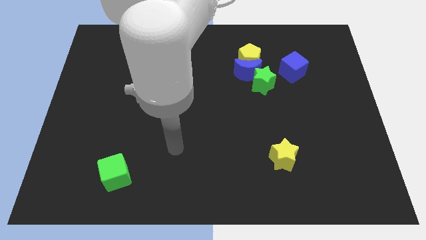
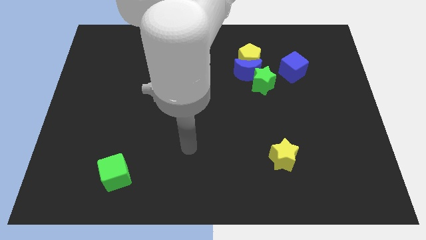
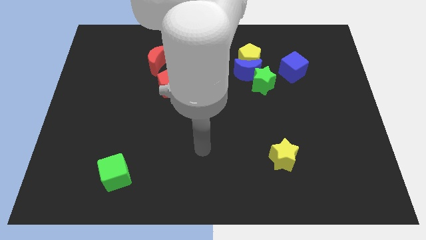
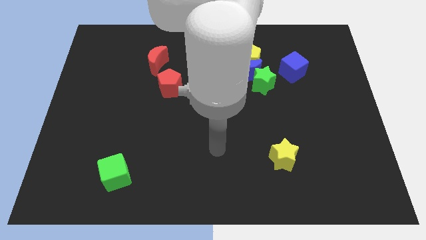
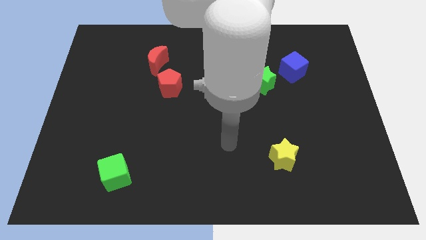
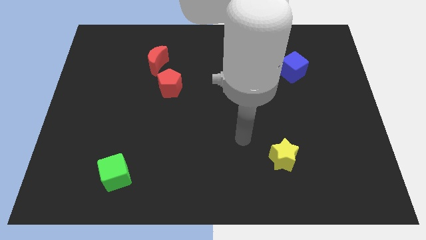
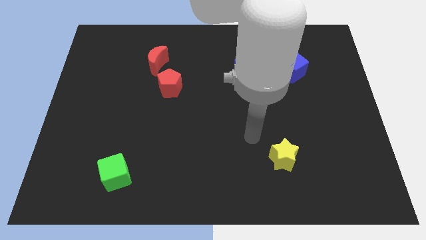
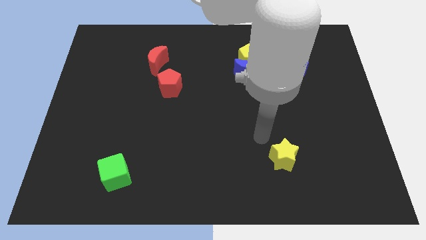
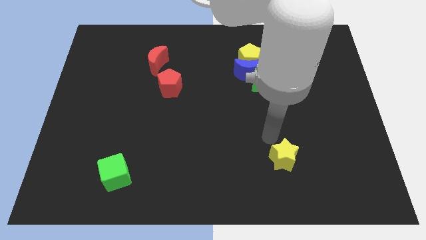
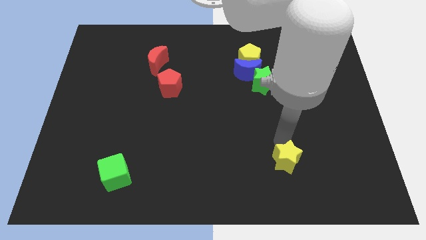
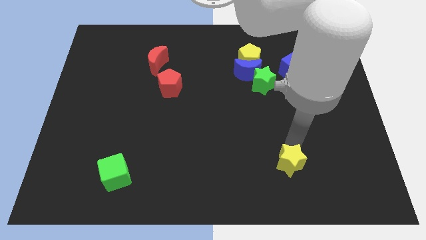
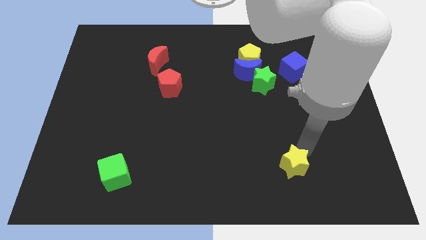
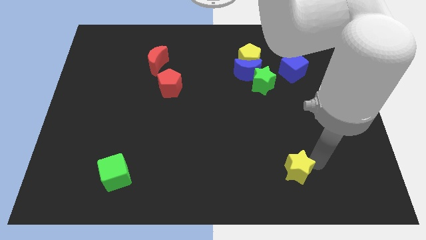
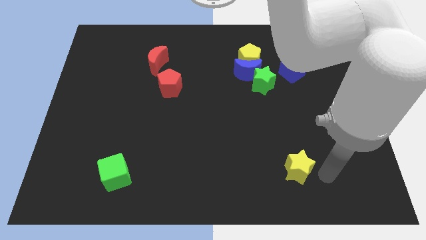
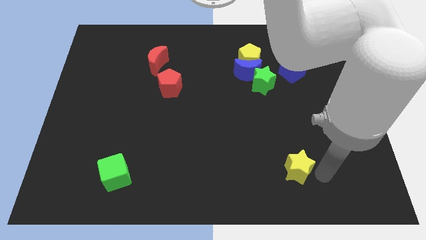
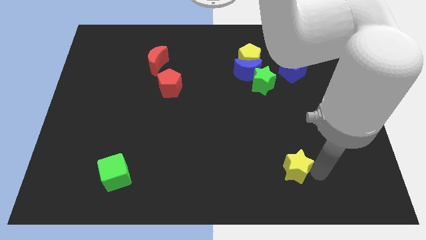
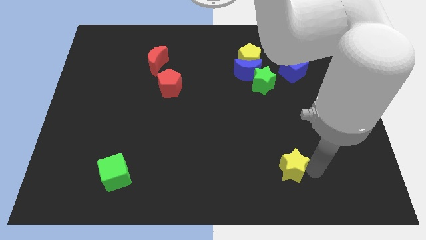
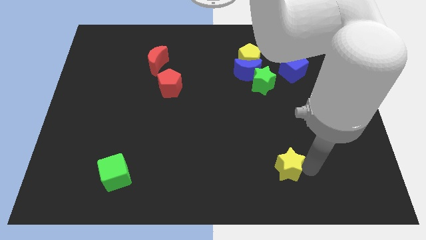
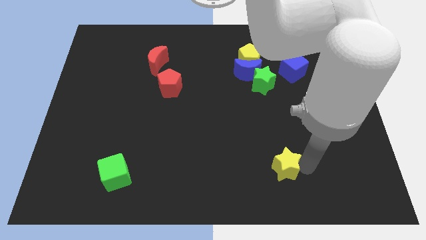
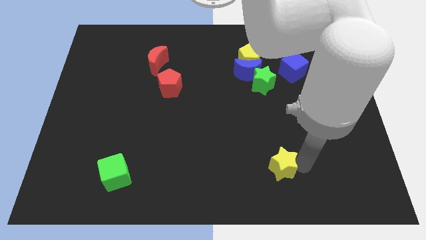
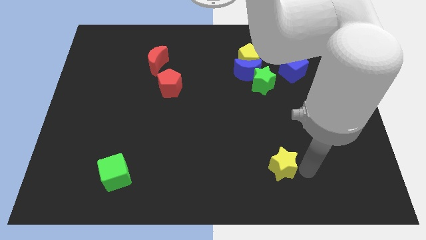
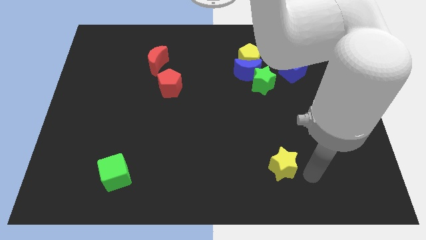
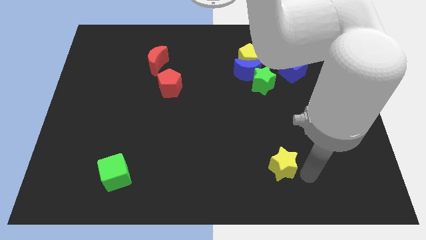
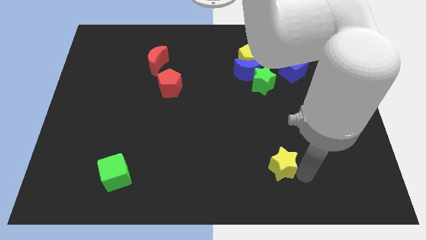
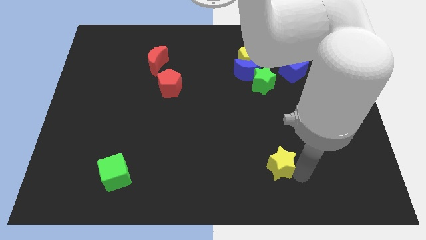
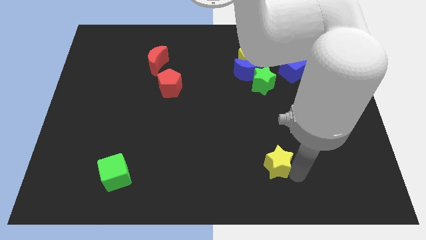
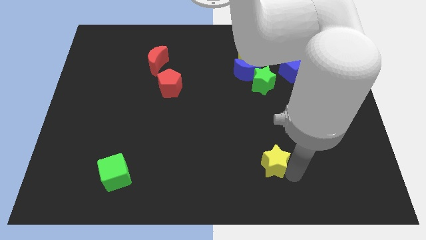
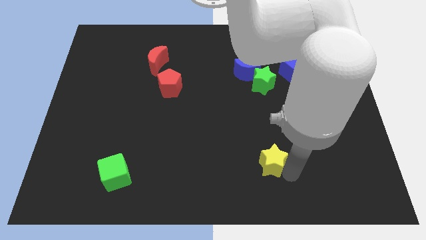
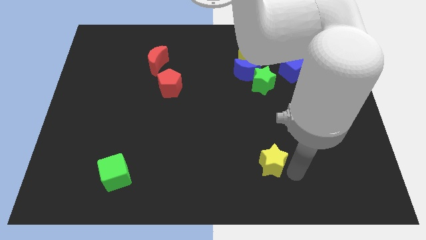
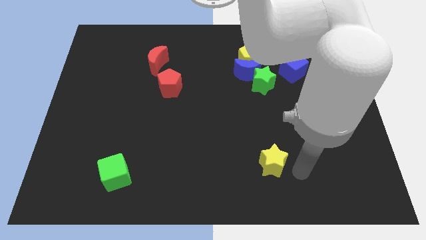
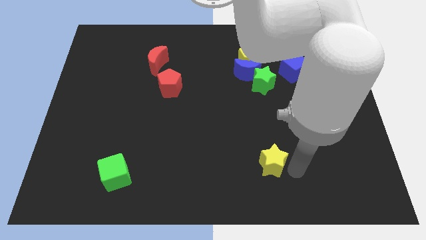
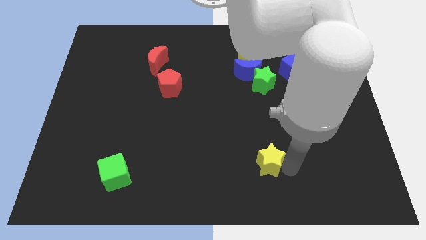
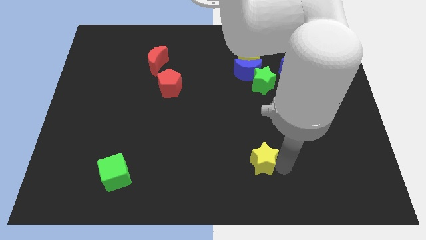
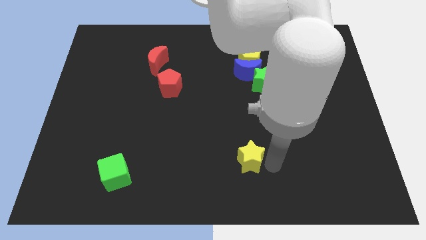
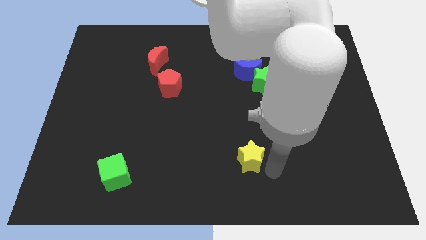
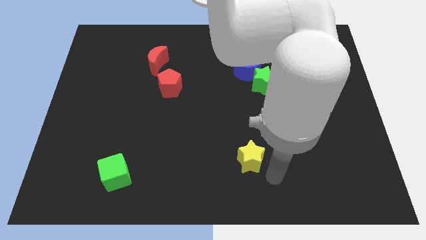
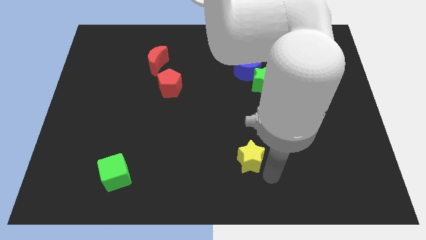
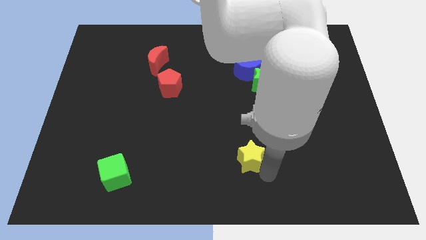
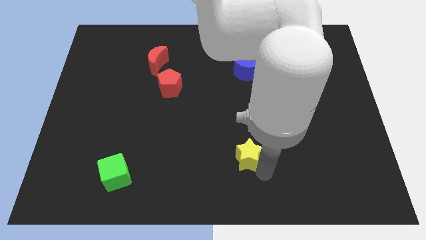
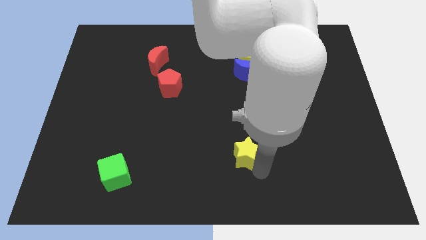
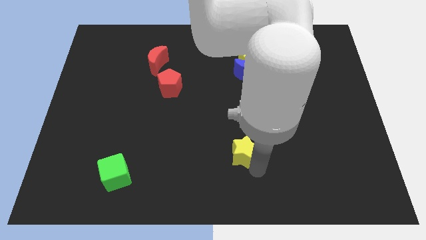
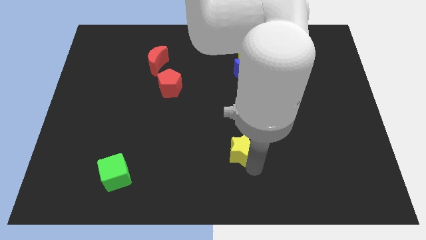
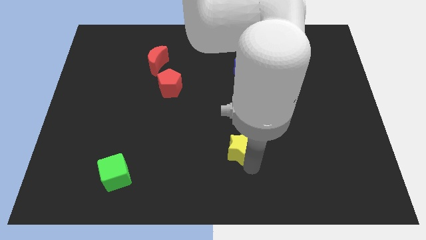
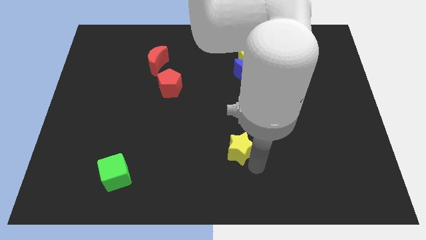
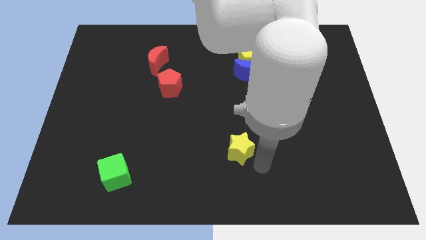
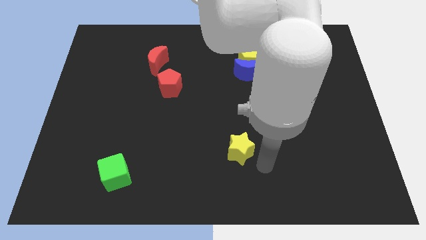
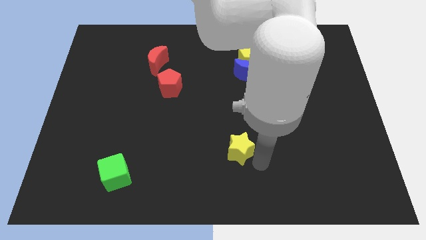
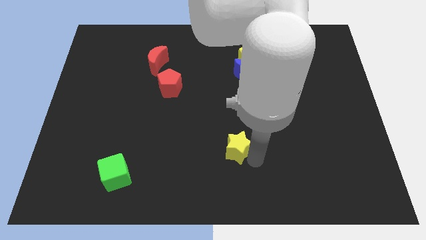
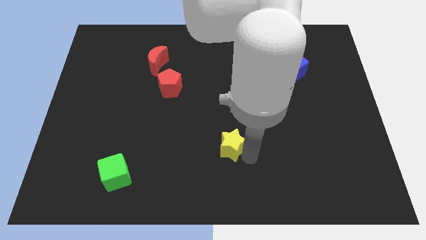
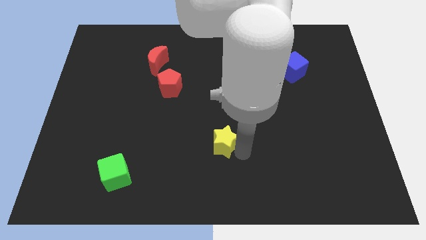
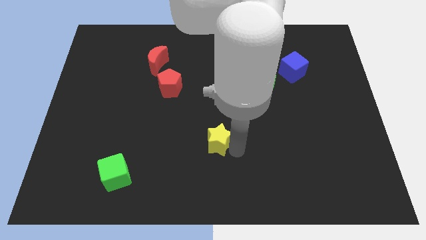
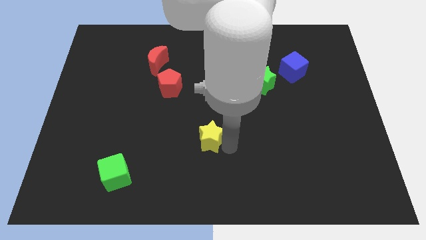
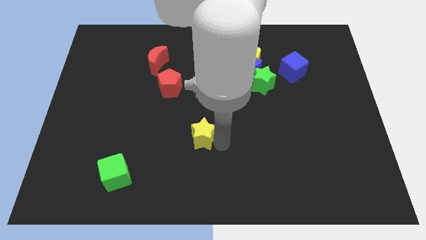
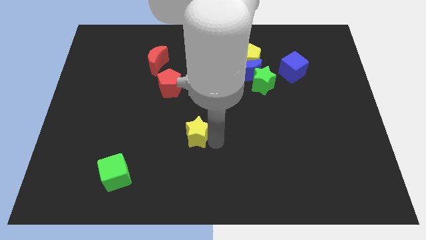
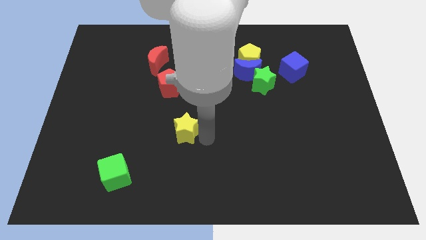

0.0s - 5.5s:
push the yellow star to the bottom of the red pentagon

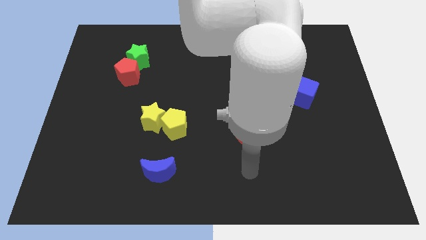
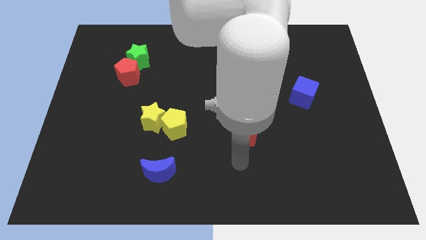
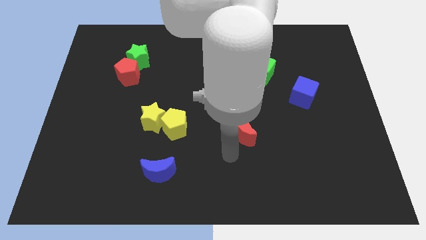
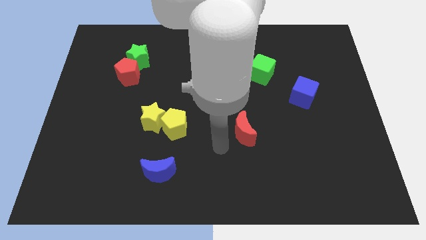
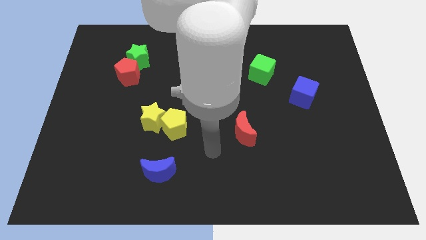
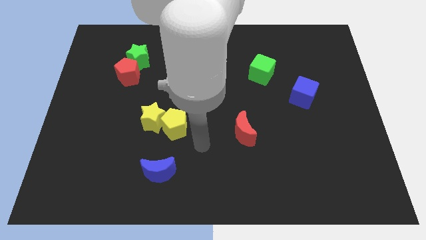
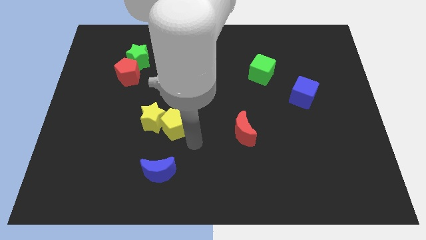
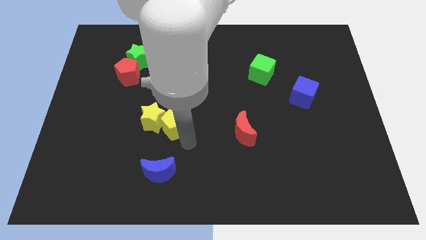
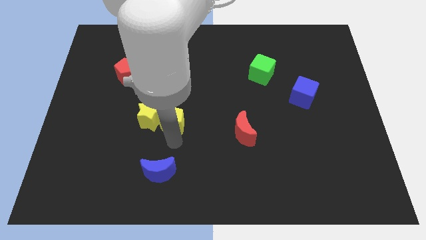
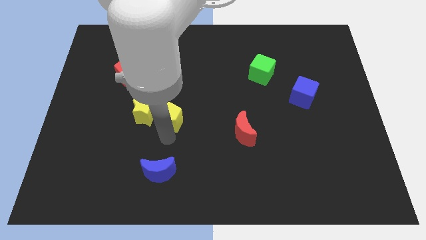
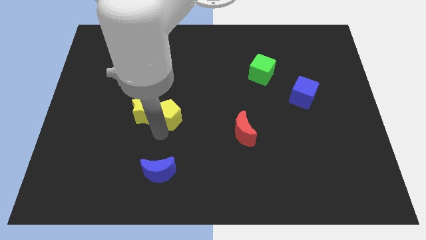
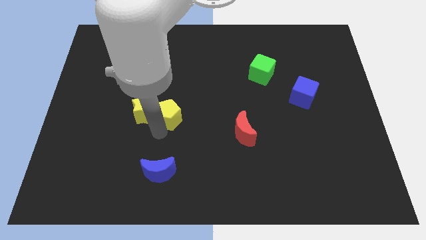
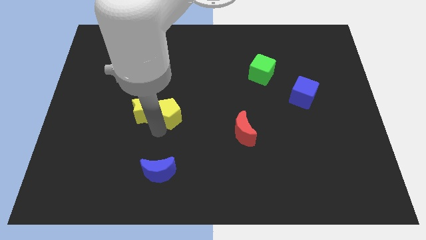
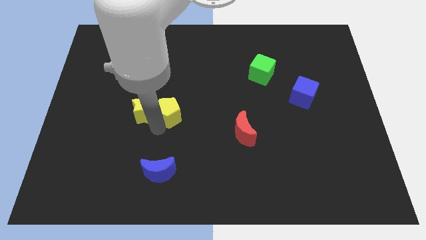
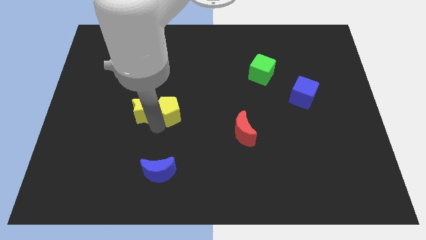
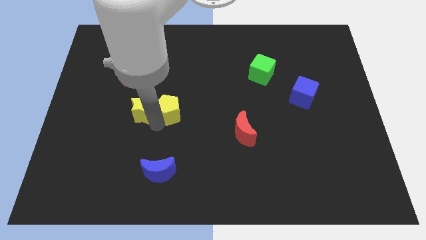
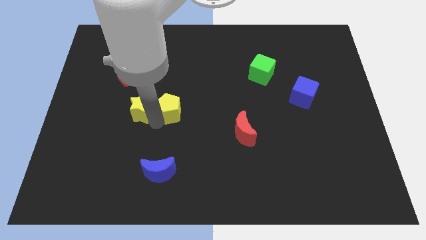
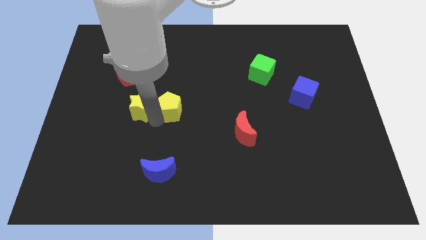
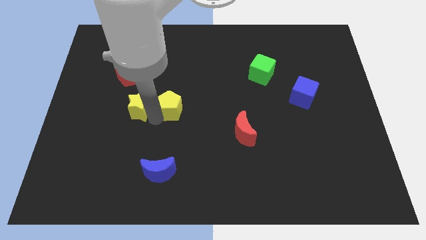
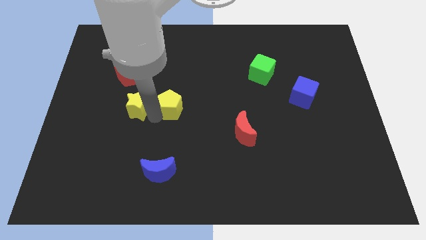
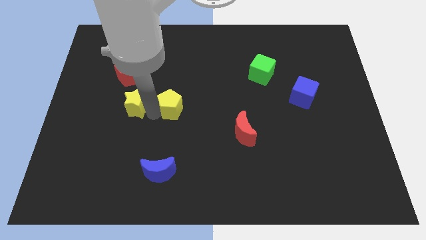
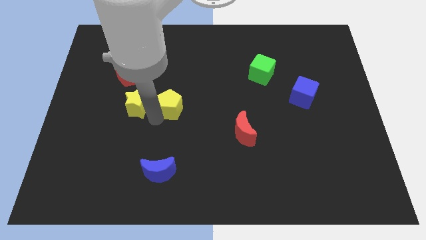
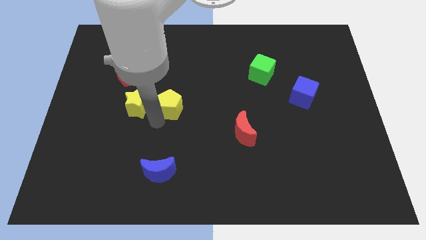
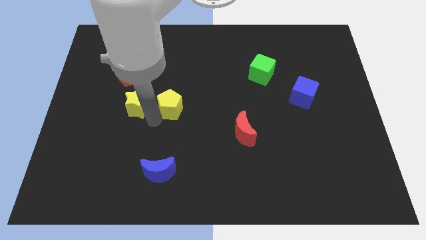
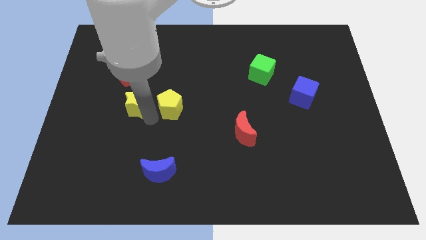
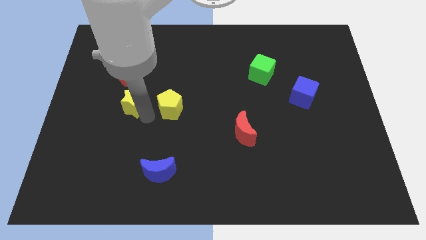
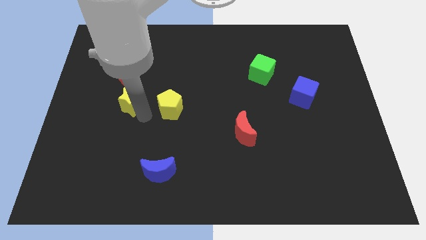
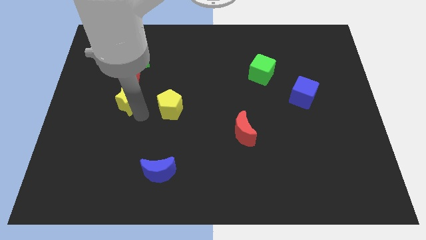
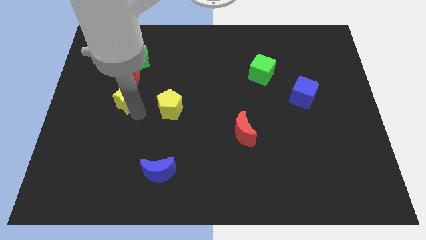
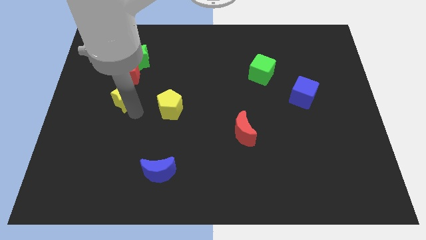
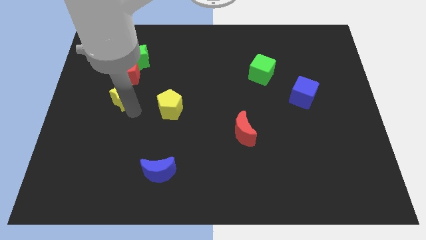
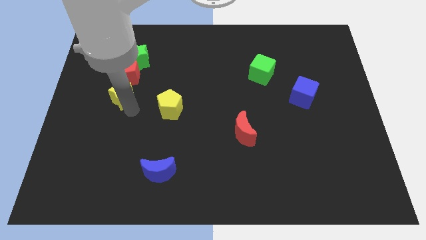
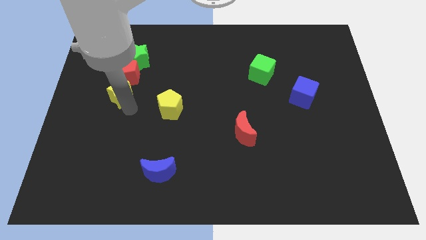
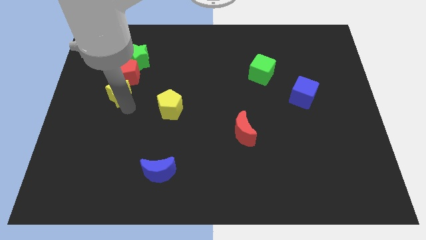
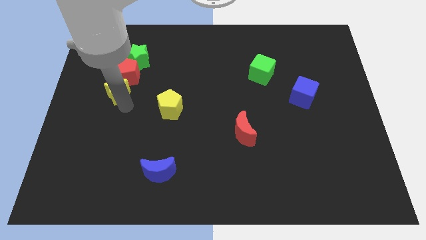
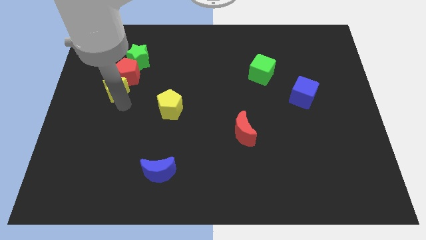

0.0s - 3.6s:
push the yellow star to the bottom left of the green star
